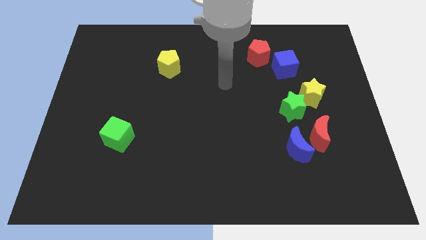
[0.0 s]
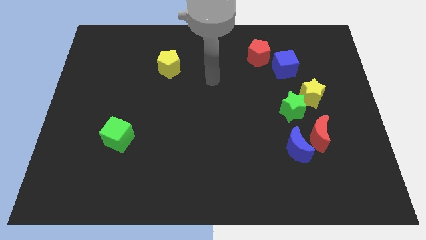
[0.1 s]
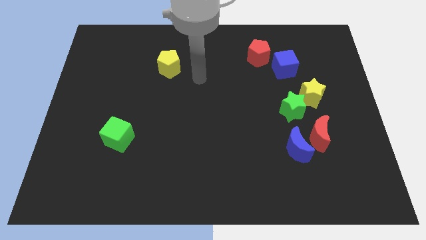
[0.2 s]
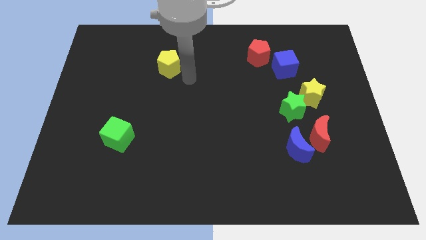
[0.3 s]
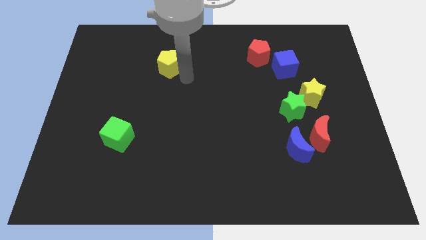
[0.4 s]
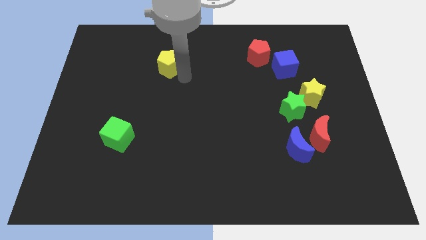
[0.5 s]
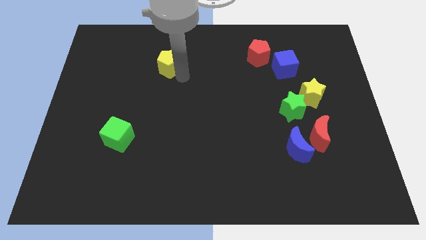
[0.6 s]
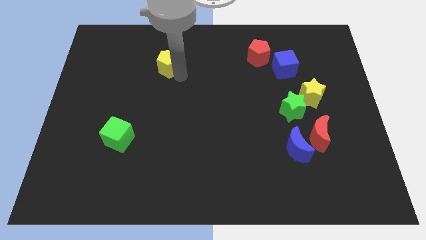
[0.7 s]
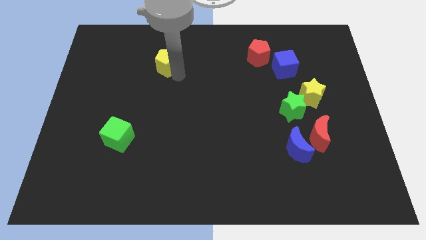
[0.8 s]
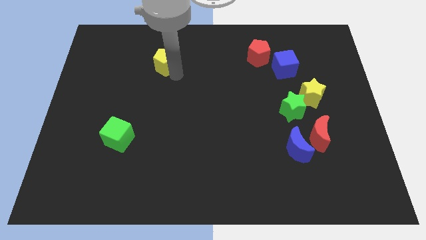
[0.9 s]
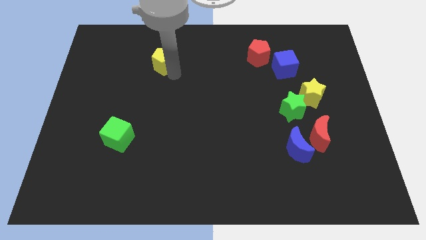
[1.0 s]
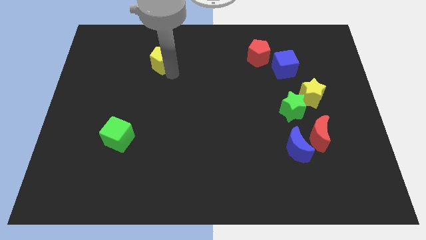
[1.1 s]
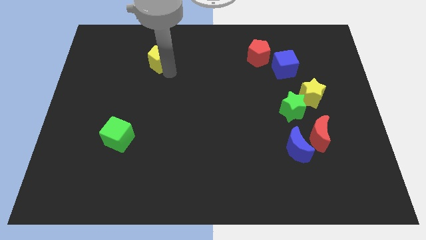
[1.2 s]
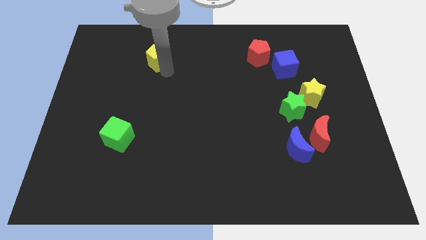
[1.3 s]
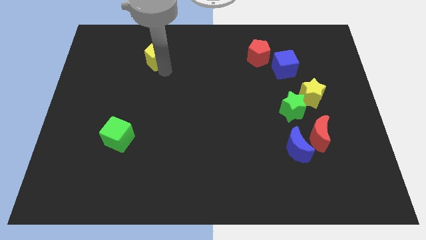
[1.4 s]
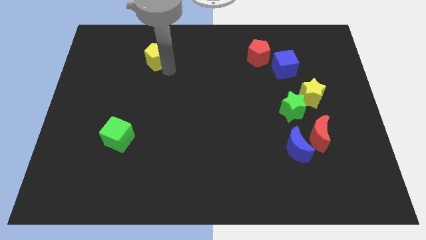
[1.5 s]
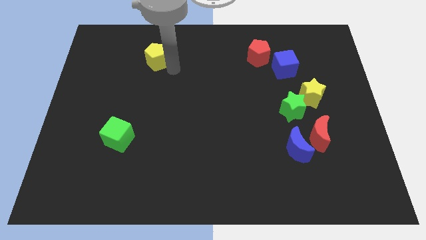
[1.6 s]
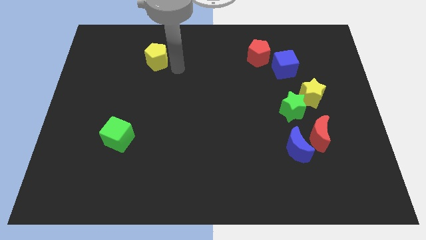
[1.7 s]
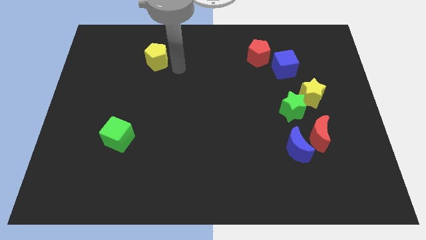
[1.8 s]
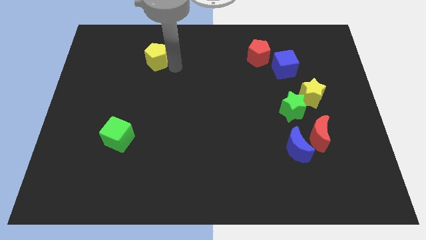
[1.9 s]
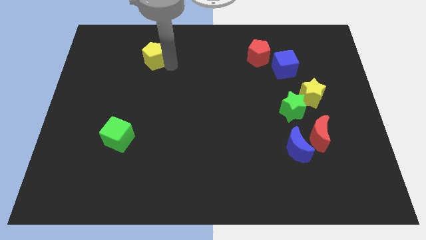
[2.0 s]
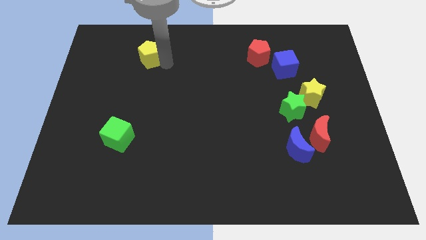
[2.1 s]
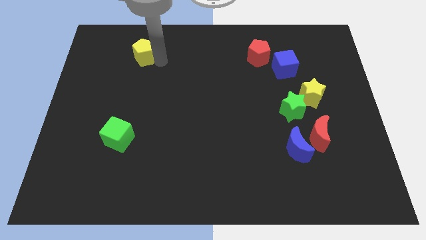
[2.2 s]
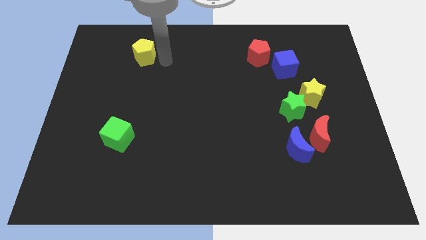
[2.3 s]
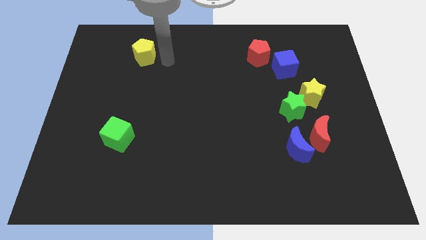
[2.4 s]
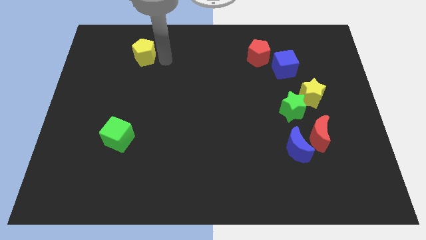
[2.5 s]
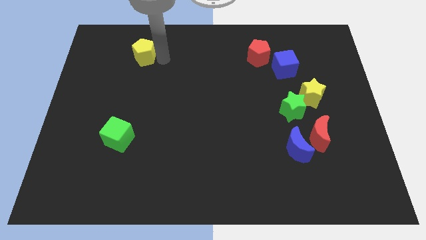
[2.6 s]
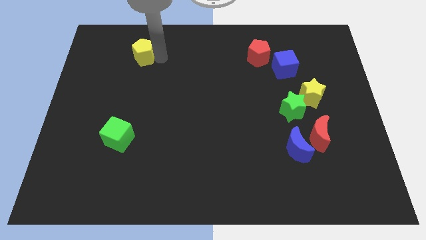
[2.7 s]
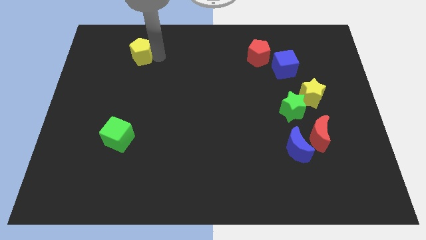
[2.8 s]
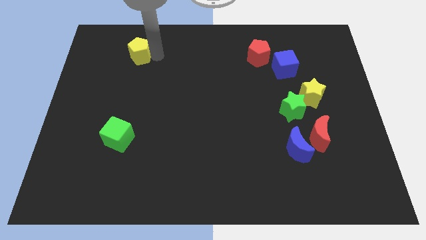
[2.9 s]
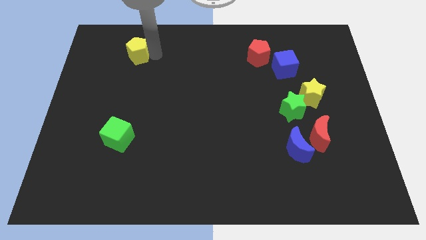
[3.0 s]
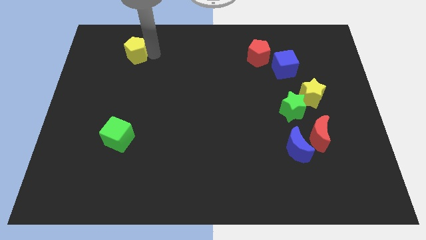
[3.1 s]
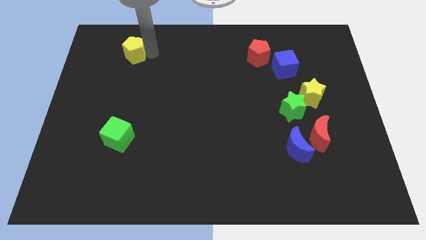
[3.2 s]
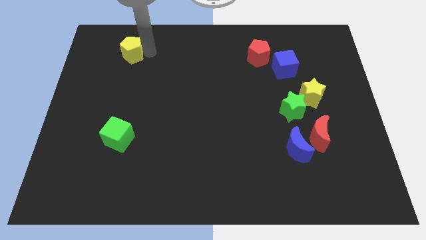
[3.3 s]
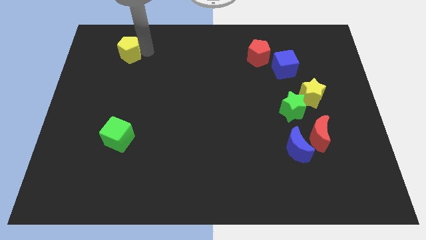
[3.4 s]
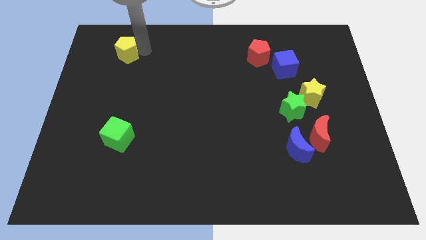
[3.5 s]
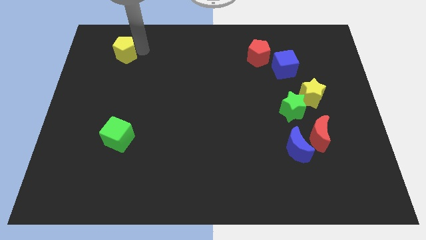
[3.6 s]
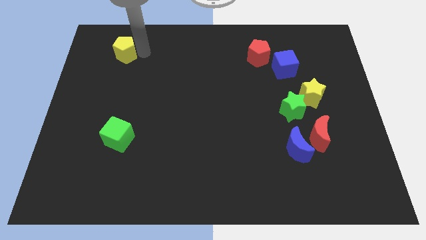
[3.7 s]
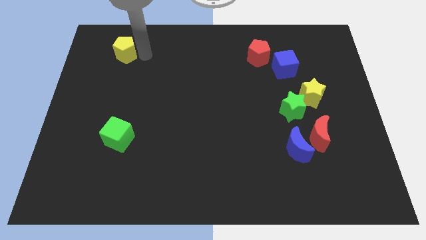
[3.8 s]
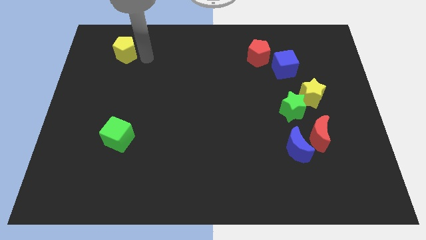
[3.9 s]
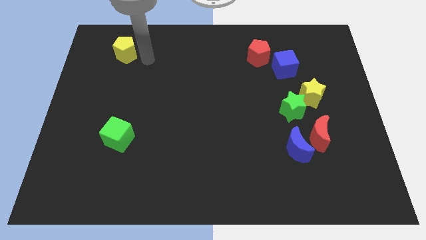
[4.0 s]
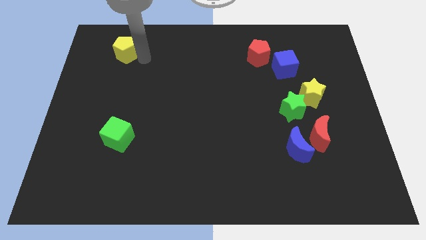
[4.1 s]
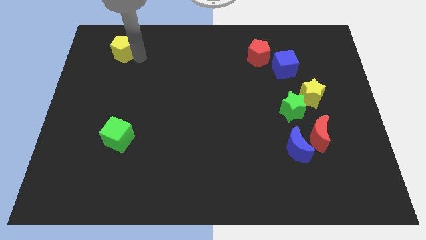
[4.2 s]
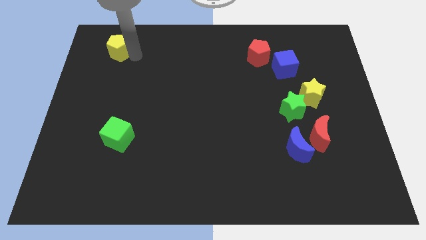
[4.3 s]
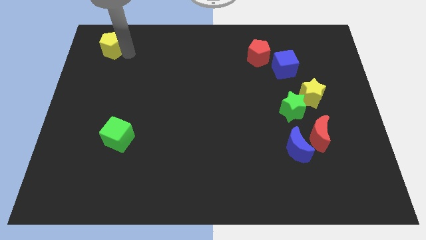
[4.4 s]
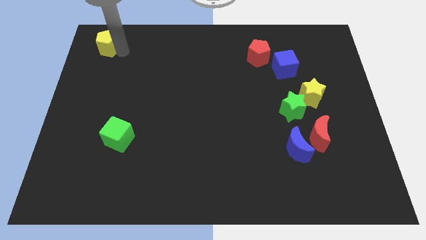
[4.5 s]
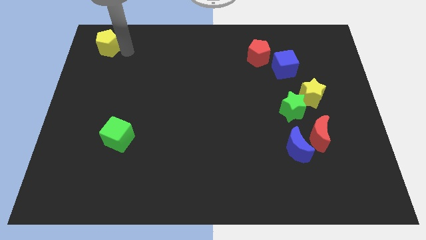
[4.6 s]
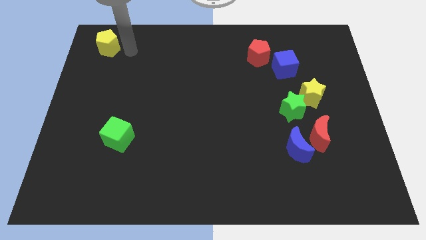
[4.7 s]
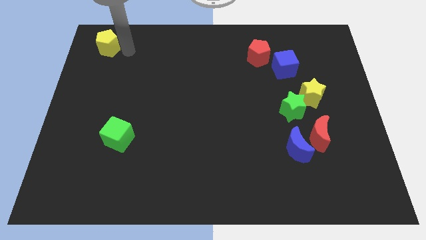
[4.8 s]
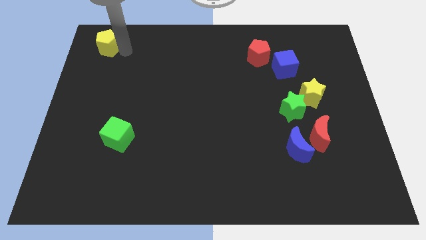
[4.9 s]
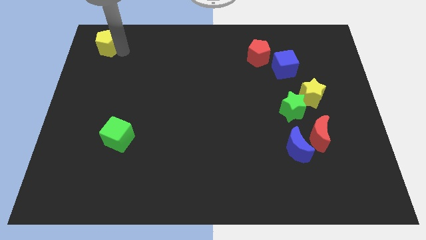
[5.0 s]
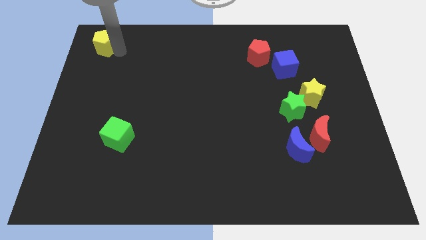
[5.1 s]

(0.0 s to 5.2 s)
move the yellow pentagon to the top left corner

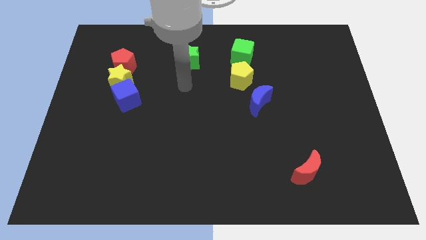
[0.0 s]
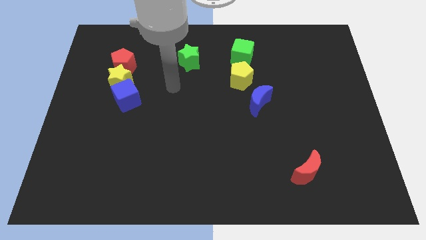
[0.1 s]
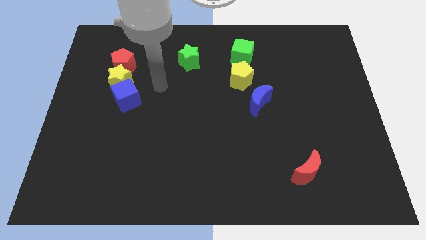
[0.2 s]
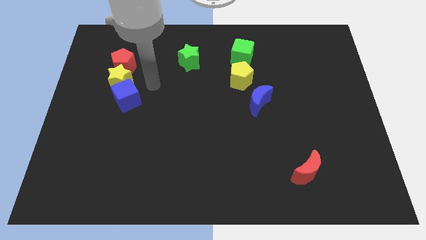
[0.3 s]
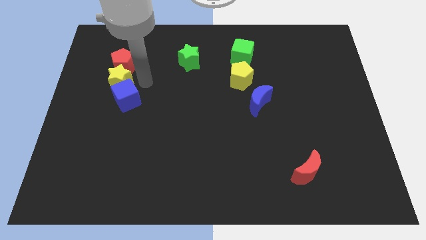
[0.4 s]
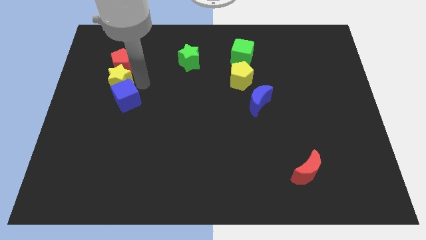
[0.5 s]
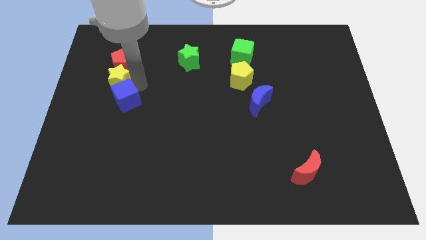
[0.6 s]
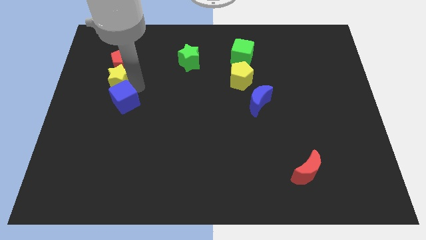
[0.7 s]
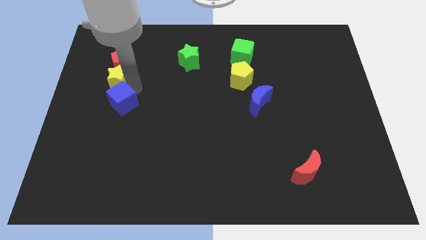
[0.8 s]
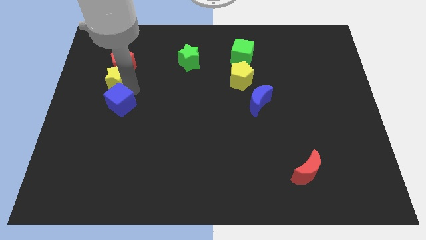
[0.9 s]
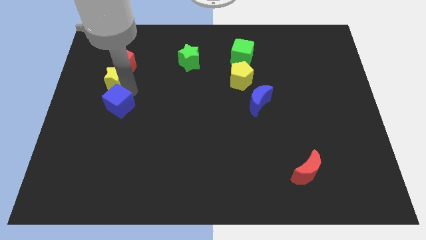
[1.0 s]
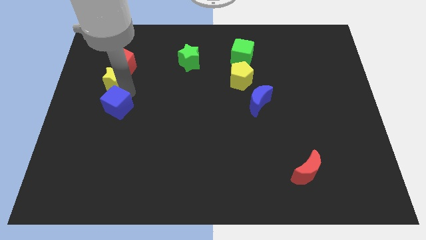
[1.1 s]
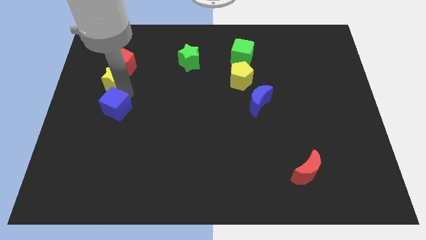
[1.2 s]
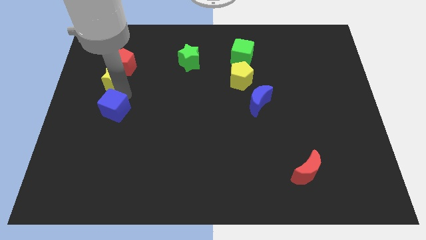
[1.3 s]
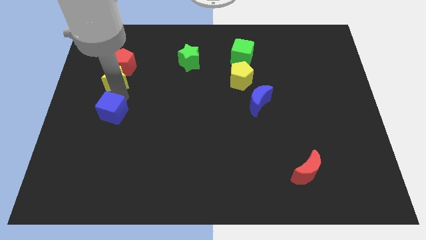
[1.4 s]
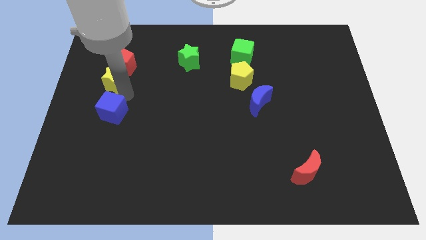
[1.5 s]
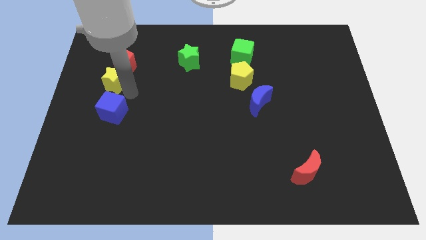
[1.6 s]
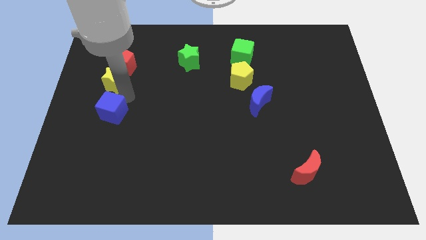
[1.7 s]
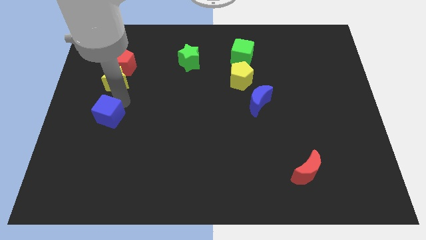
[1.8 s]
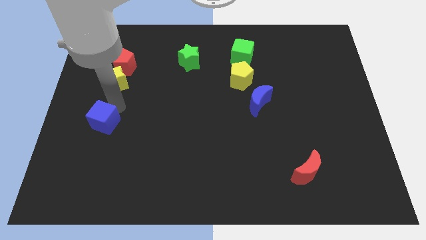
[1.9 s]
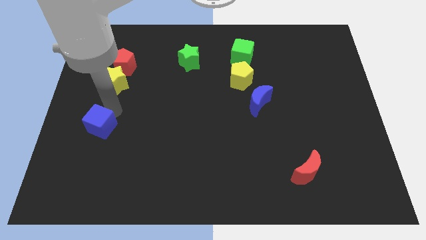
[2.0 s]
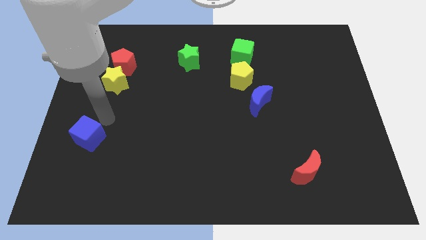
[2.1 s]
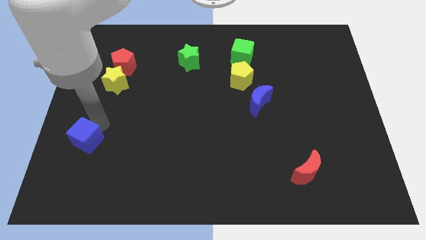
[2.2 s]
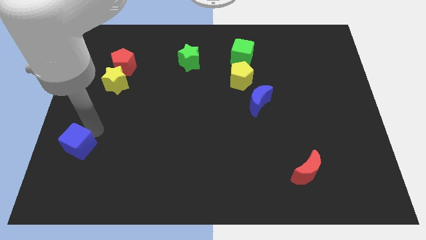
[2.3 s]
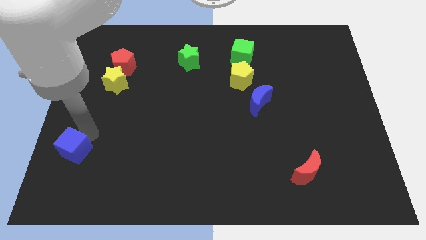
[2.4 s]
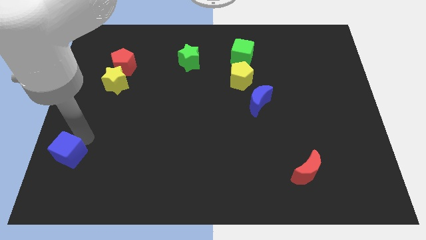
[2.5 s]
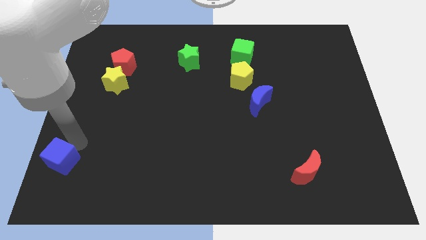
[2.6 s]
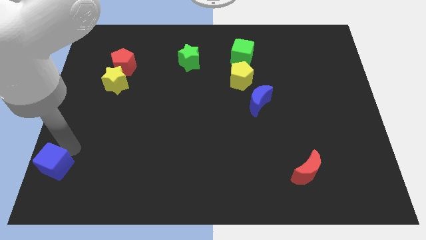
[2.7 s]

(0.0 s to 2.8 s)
move the blue cube to the bottom left
